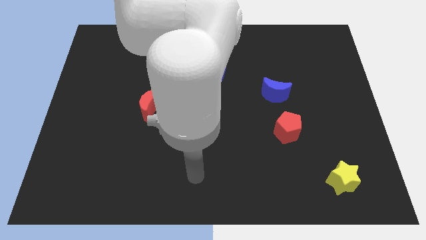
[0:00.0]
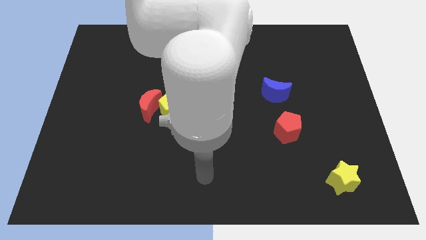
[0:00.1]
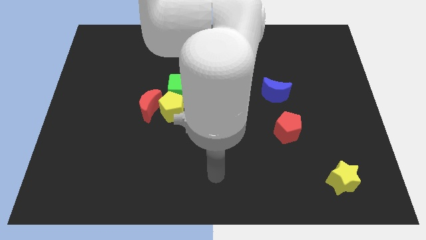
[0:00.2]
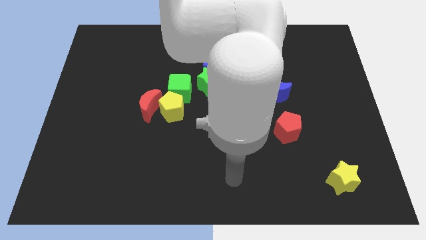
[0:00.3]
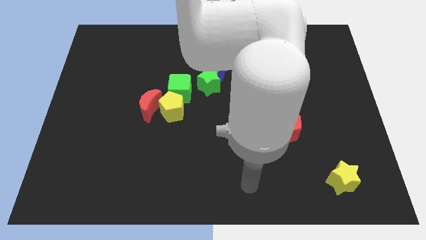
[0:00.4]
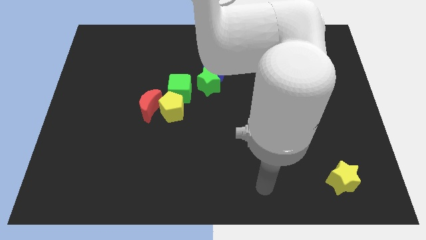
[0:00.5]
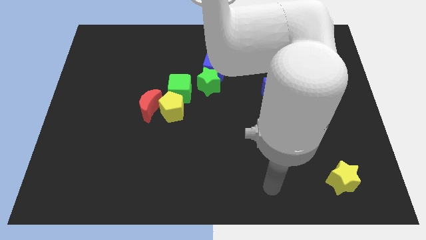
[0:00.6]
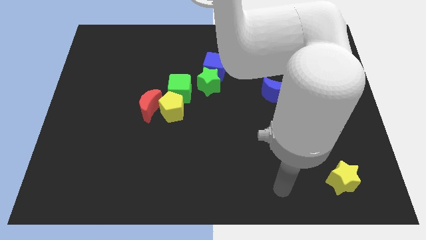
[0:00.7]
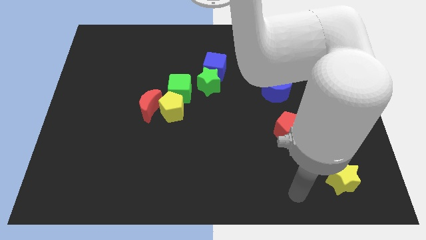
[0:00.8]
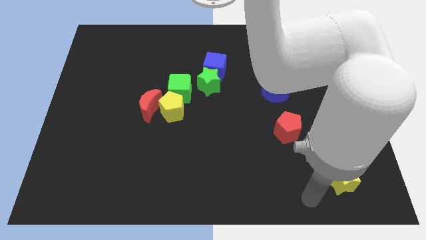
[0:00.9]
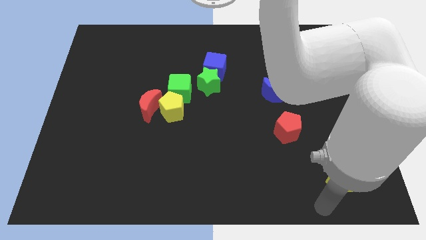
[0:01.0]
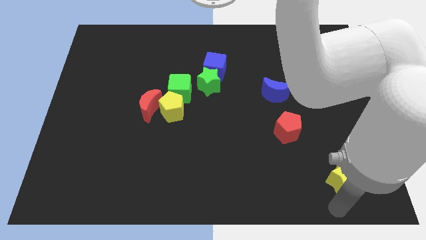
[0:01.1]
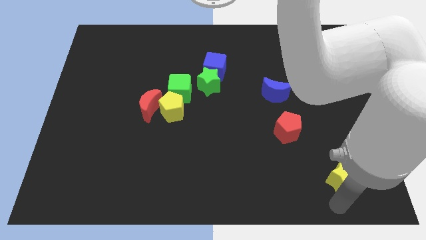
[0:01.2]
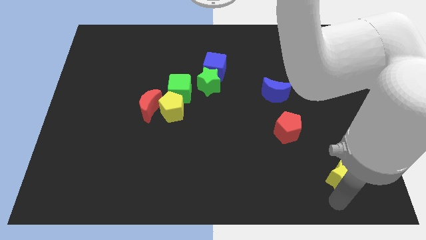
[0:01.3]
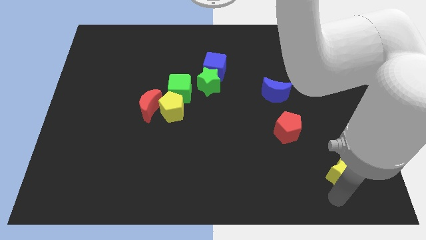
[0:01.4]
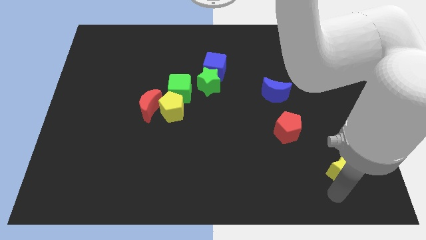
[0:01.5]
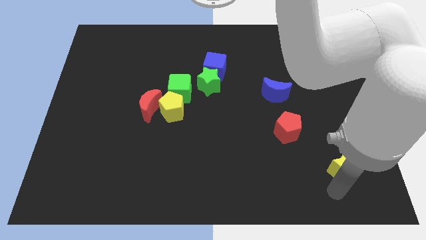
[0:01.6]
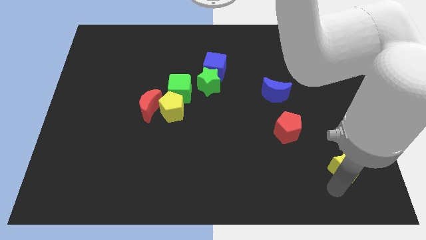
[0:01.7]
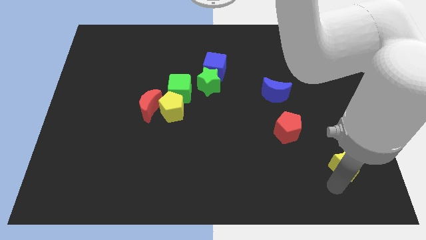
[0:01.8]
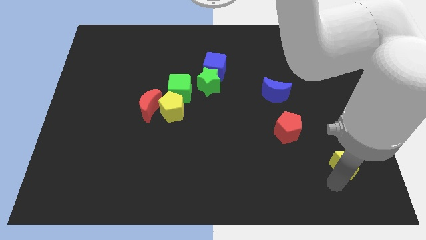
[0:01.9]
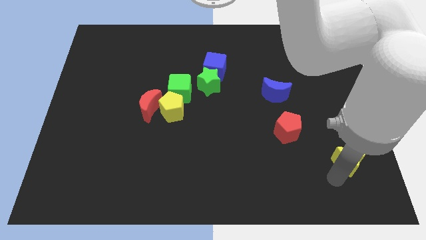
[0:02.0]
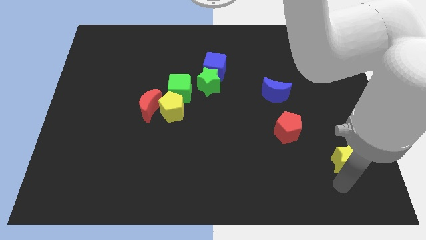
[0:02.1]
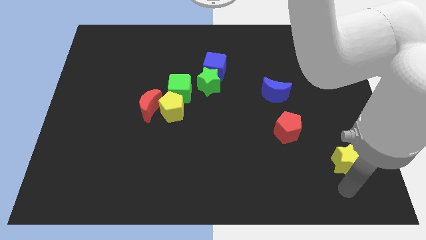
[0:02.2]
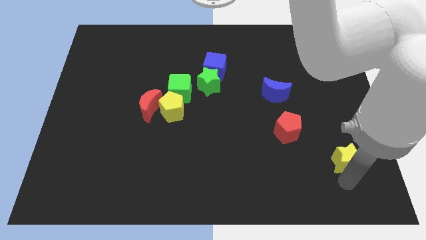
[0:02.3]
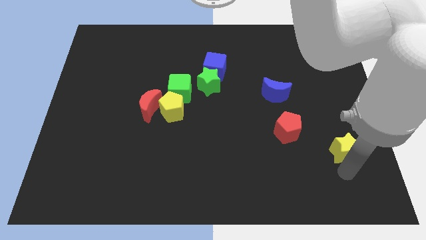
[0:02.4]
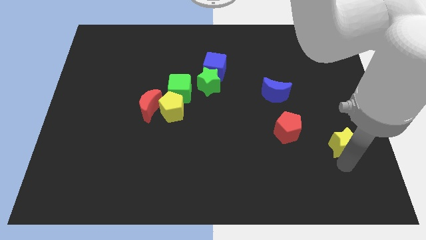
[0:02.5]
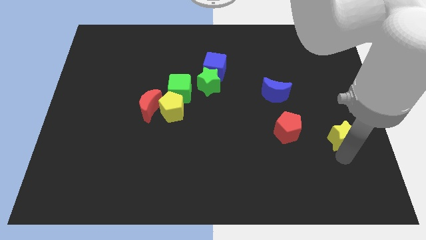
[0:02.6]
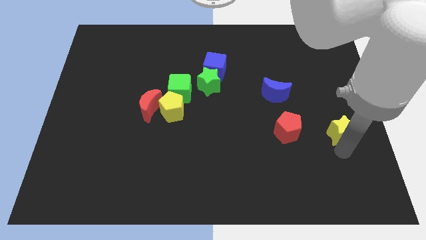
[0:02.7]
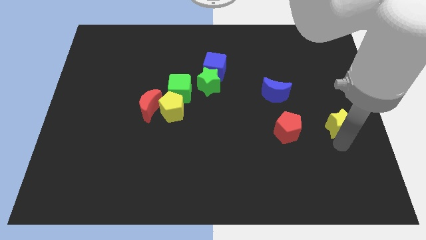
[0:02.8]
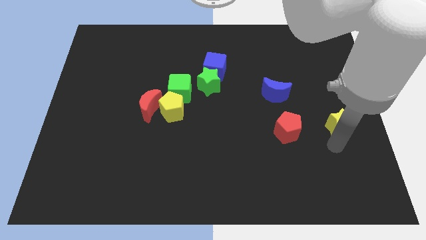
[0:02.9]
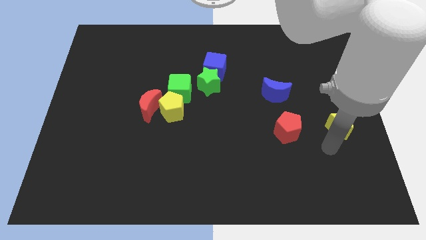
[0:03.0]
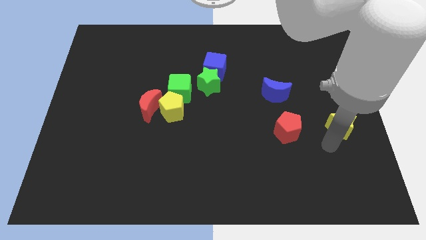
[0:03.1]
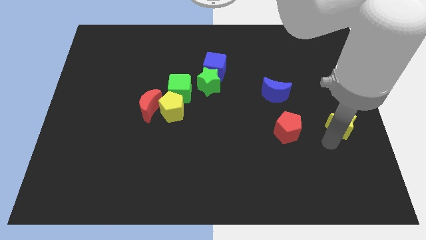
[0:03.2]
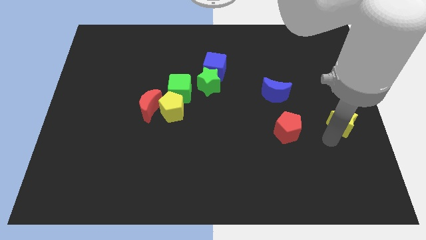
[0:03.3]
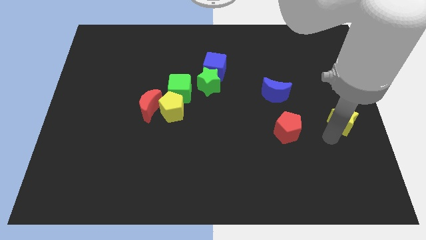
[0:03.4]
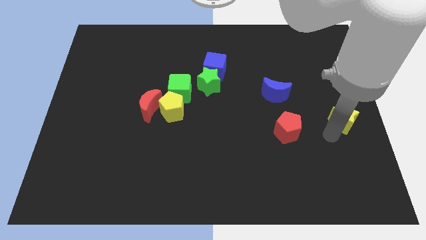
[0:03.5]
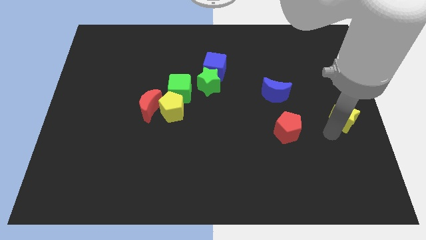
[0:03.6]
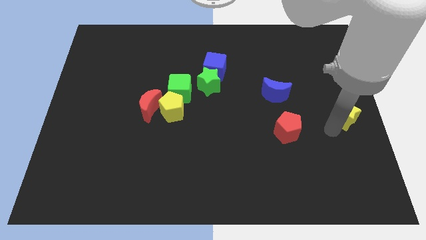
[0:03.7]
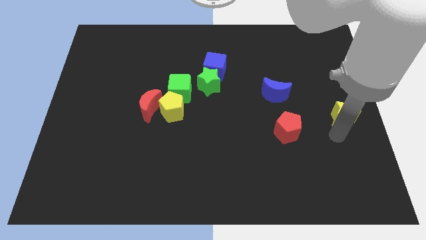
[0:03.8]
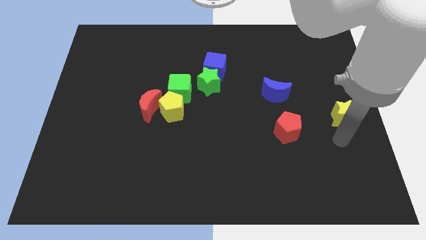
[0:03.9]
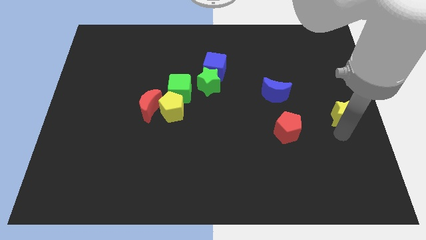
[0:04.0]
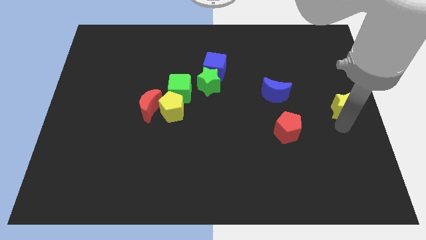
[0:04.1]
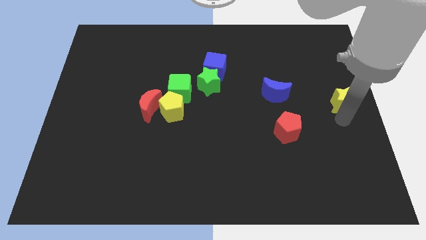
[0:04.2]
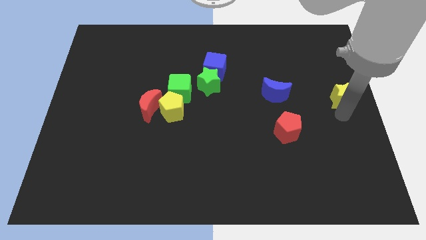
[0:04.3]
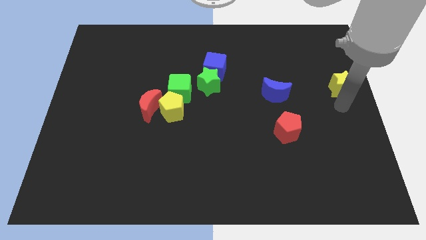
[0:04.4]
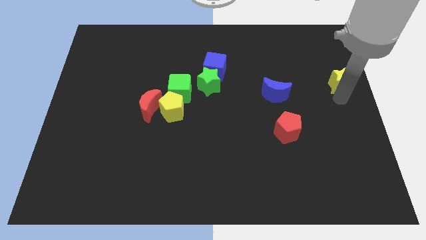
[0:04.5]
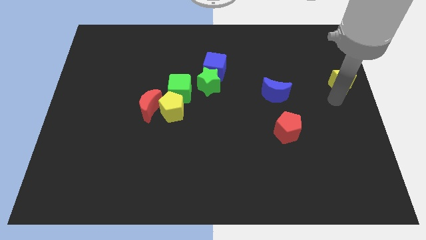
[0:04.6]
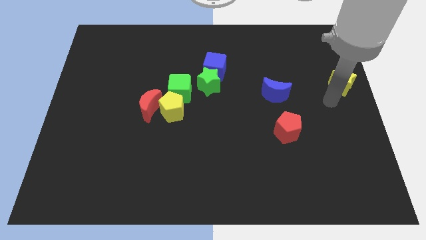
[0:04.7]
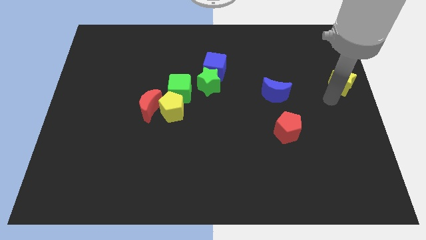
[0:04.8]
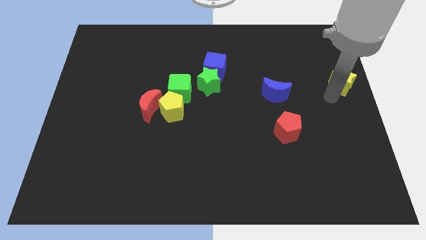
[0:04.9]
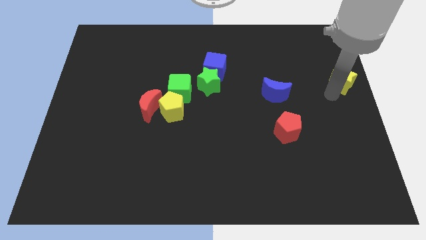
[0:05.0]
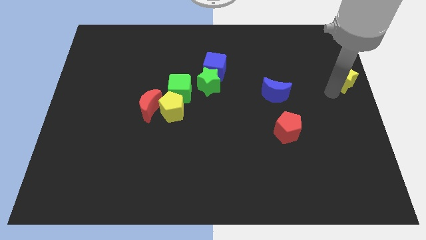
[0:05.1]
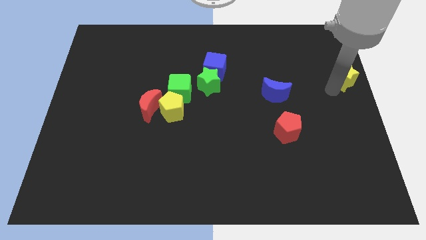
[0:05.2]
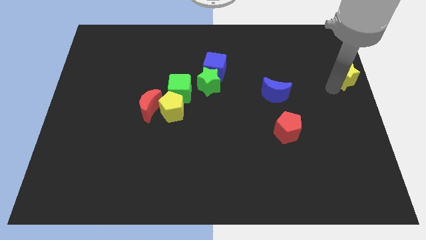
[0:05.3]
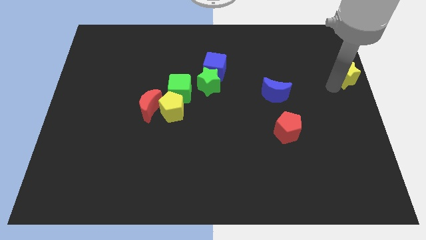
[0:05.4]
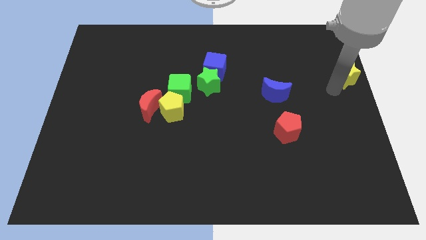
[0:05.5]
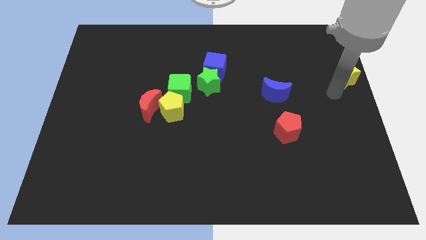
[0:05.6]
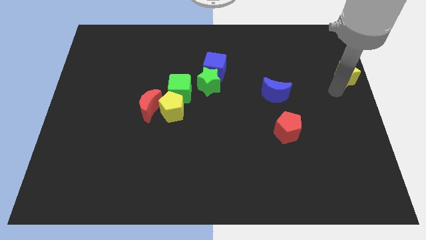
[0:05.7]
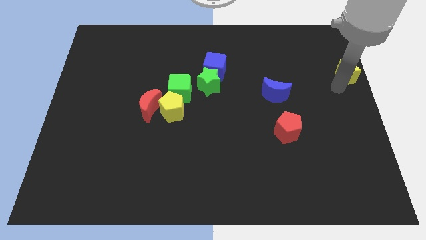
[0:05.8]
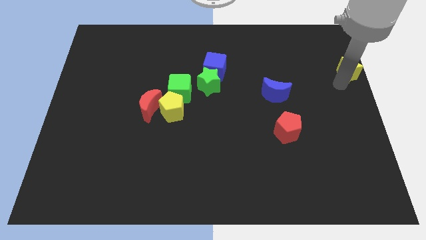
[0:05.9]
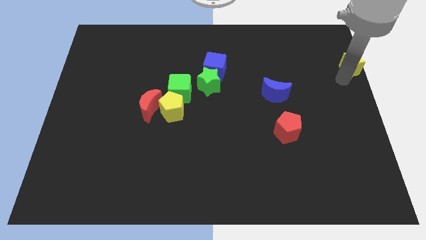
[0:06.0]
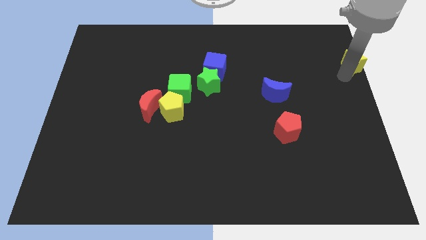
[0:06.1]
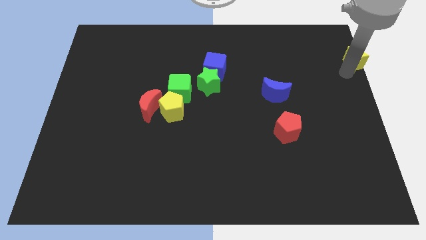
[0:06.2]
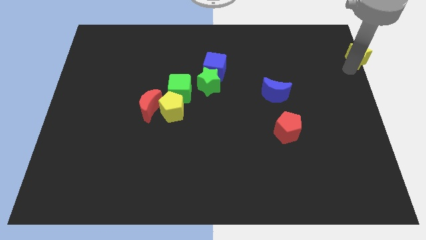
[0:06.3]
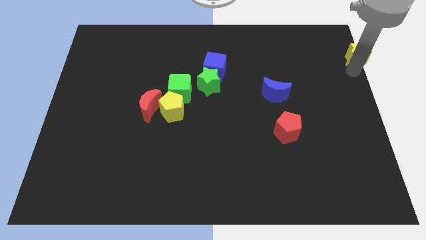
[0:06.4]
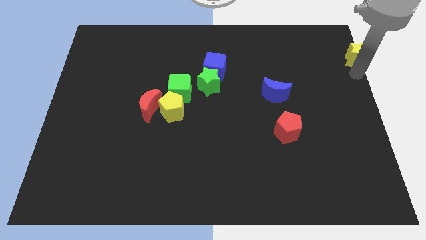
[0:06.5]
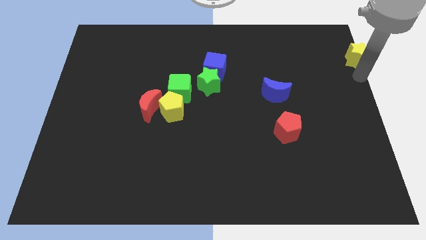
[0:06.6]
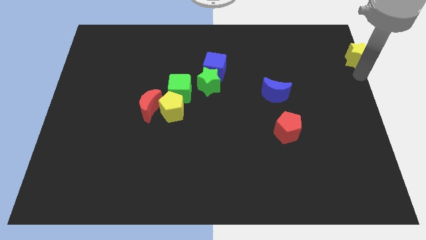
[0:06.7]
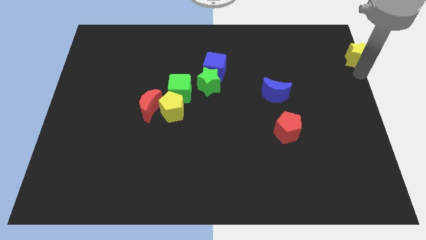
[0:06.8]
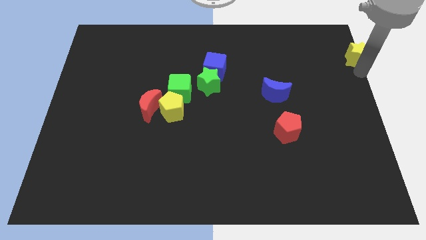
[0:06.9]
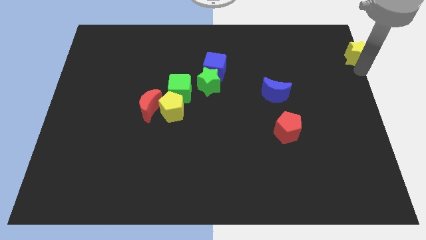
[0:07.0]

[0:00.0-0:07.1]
push the yellow star to the top right corner
